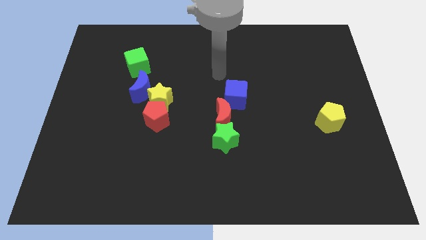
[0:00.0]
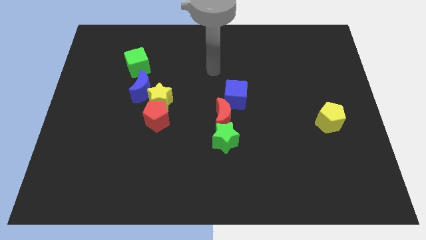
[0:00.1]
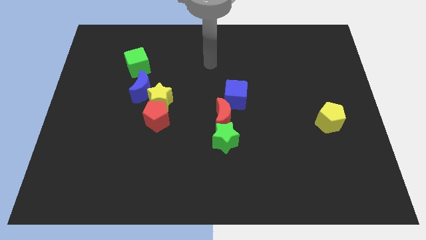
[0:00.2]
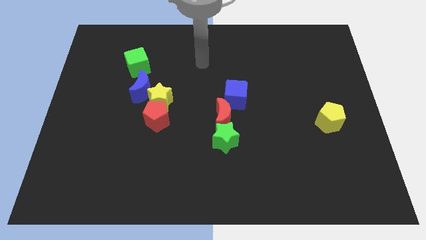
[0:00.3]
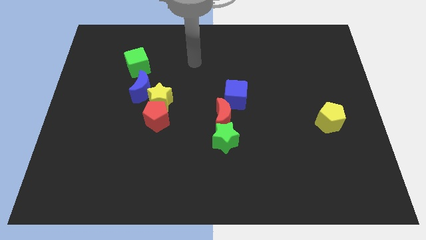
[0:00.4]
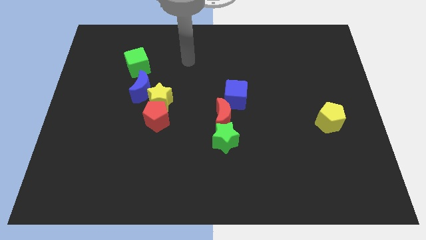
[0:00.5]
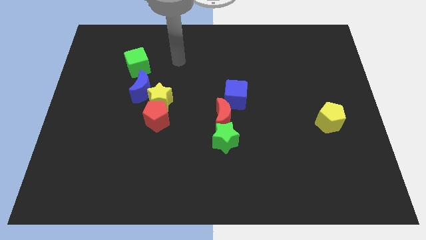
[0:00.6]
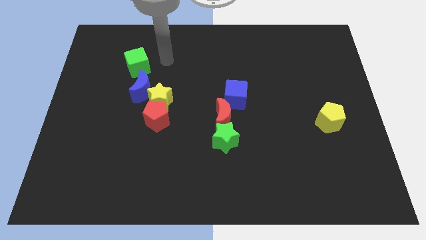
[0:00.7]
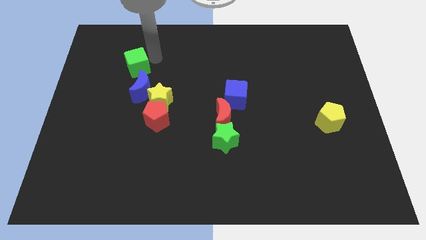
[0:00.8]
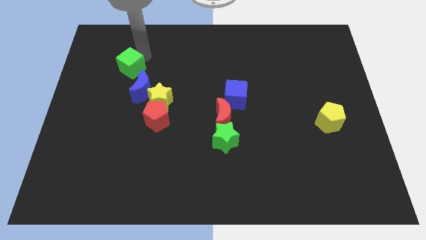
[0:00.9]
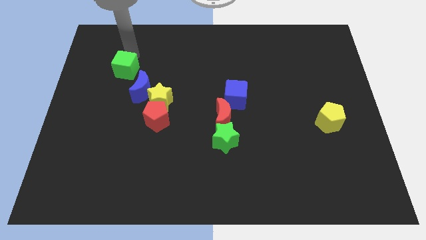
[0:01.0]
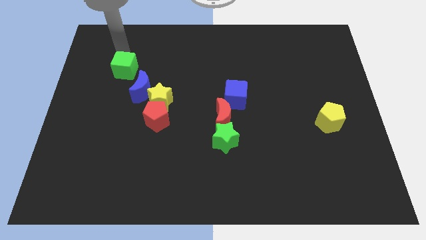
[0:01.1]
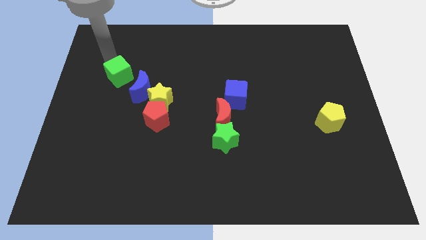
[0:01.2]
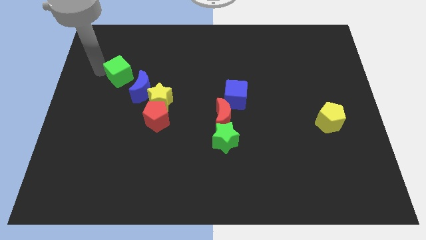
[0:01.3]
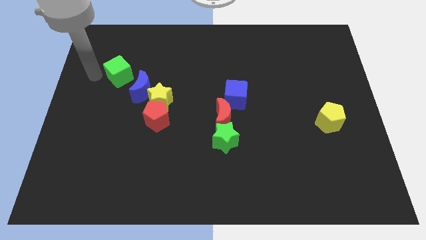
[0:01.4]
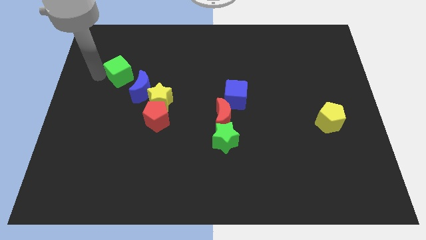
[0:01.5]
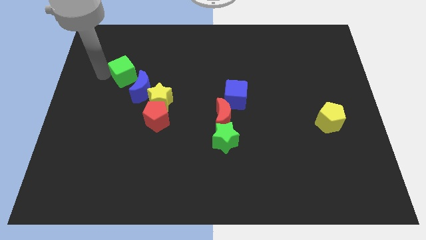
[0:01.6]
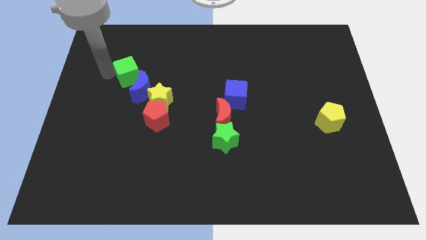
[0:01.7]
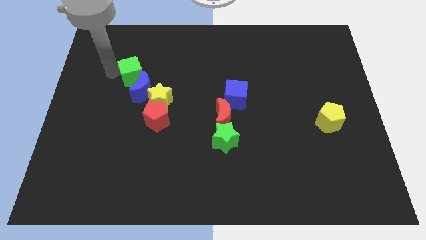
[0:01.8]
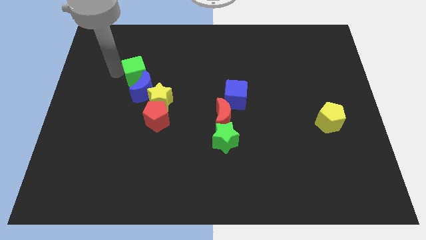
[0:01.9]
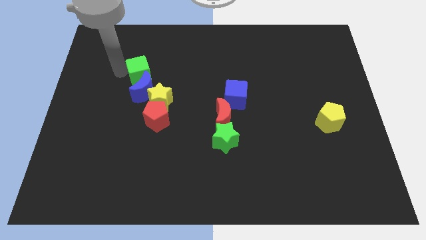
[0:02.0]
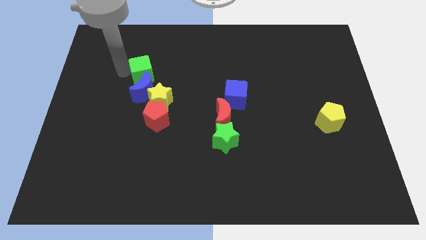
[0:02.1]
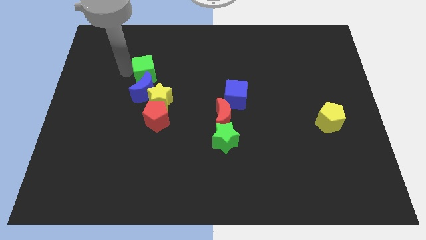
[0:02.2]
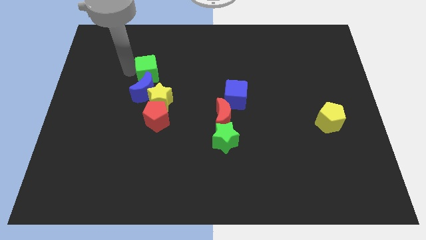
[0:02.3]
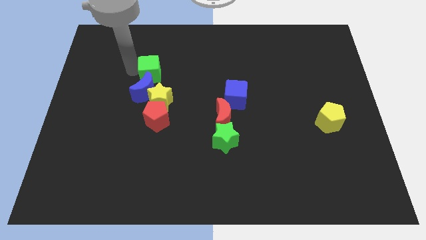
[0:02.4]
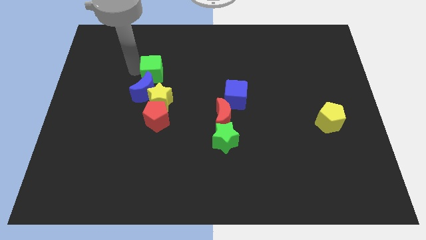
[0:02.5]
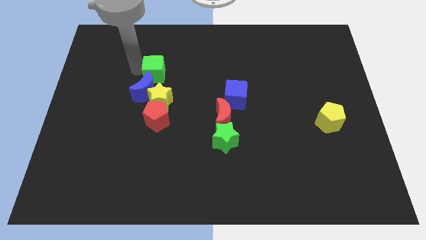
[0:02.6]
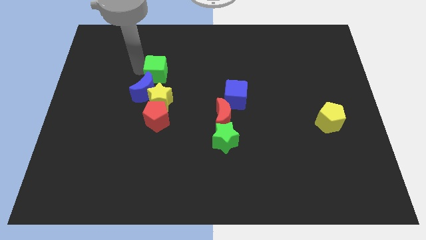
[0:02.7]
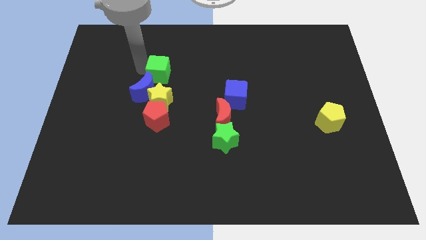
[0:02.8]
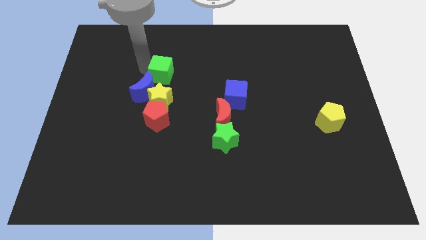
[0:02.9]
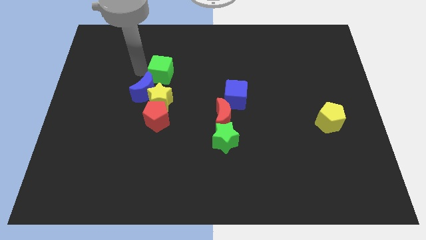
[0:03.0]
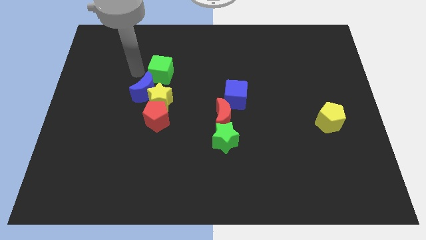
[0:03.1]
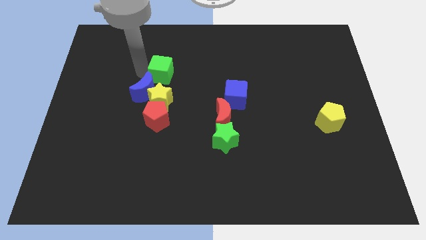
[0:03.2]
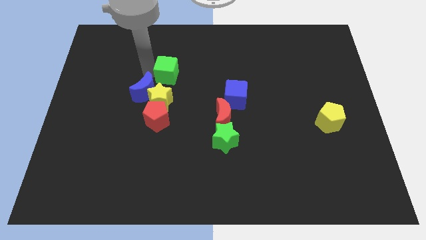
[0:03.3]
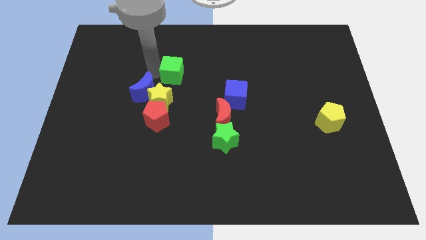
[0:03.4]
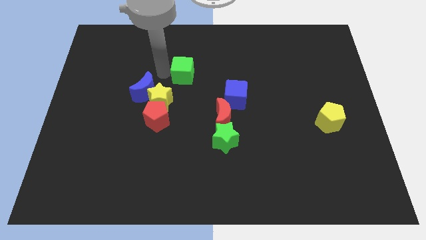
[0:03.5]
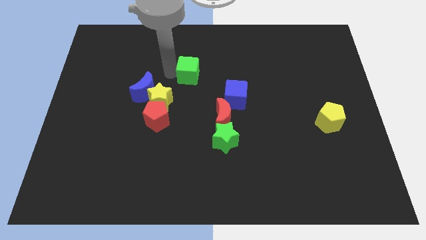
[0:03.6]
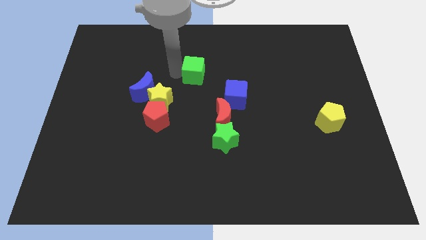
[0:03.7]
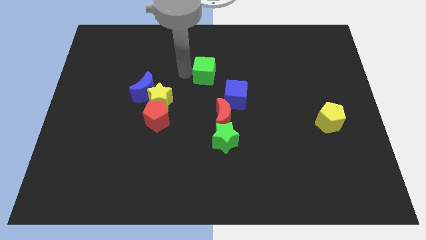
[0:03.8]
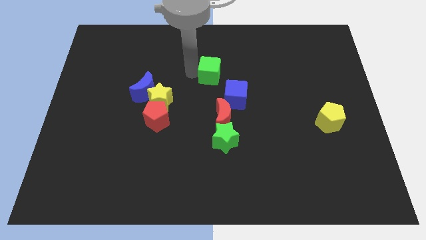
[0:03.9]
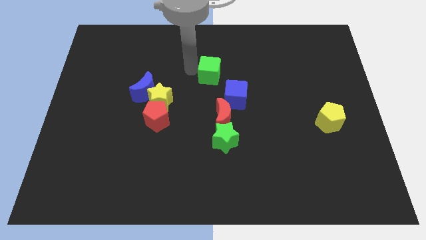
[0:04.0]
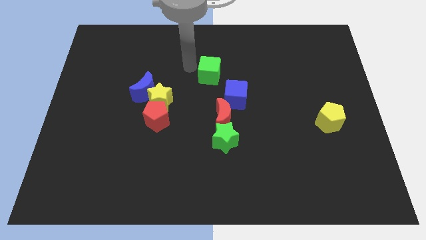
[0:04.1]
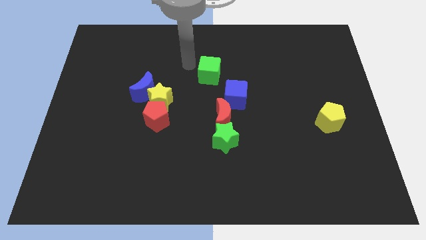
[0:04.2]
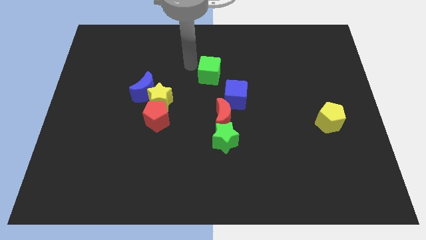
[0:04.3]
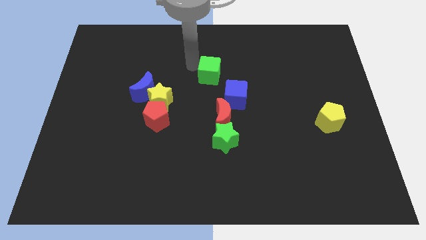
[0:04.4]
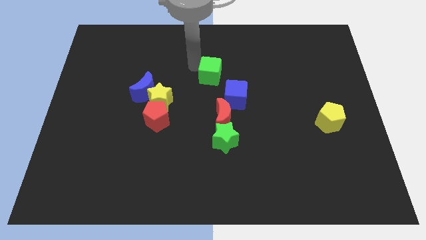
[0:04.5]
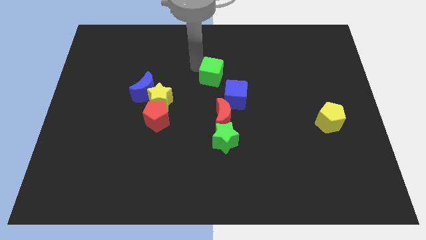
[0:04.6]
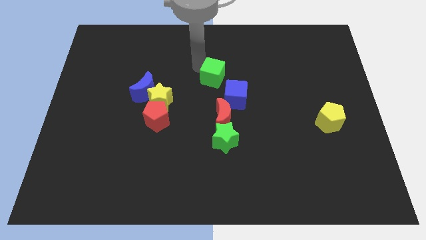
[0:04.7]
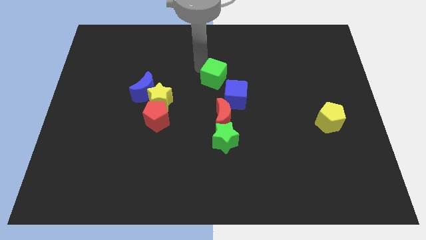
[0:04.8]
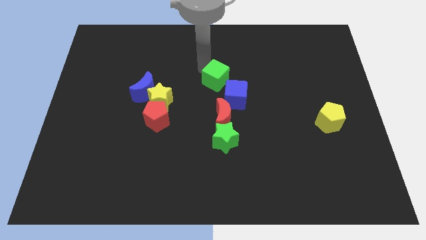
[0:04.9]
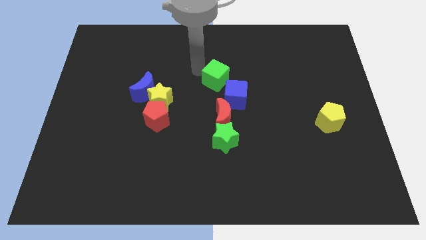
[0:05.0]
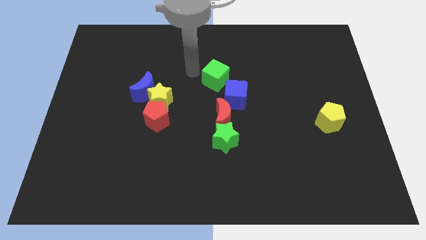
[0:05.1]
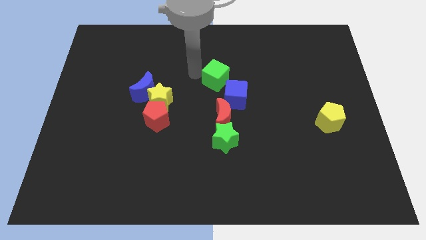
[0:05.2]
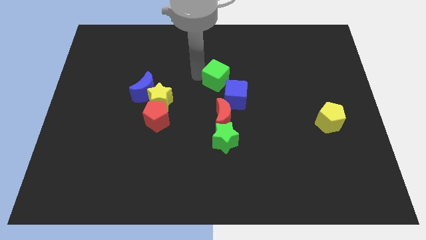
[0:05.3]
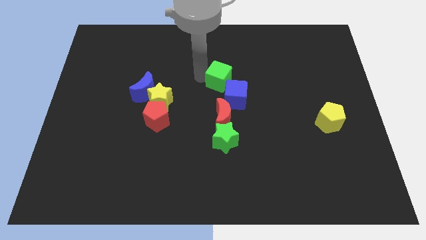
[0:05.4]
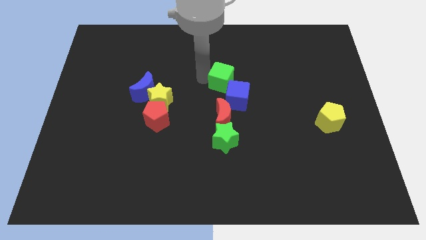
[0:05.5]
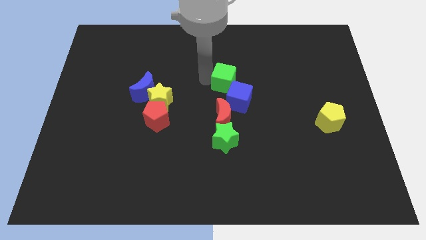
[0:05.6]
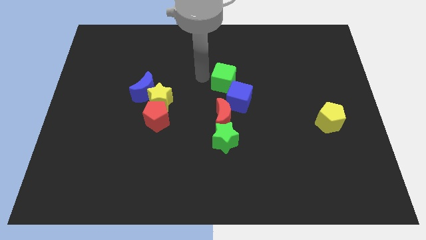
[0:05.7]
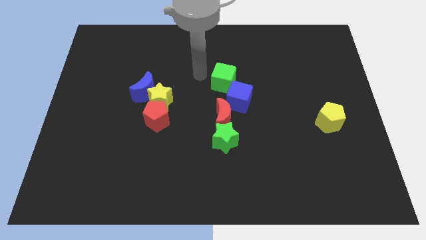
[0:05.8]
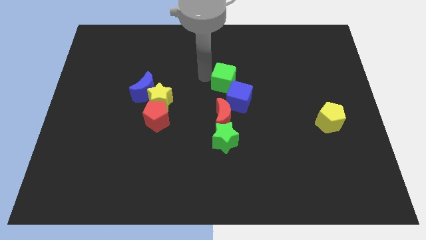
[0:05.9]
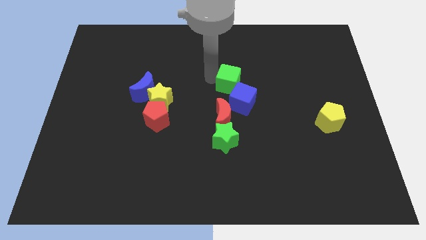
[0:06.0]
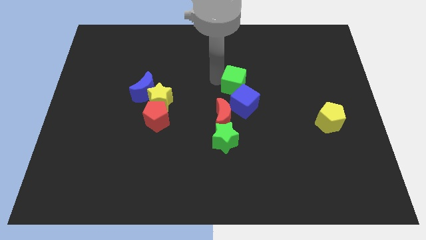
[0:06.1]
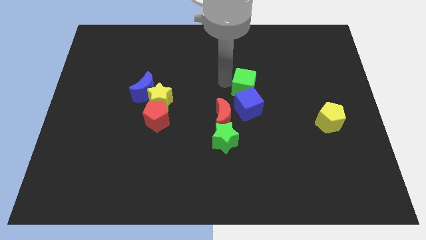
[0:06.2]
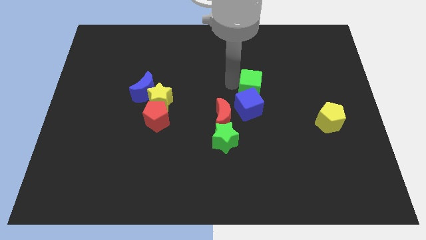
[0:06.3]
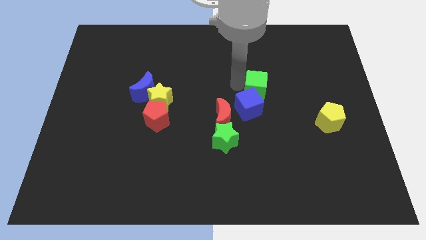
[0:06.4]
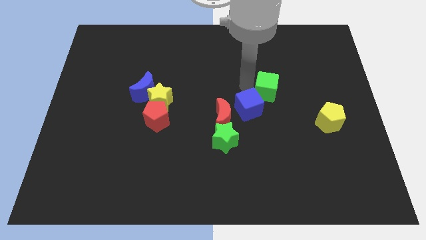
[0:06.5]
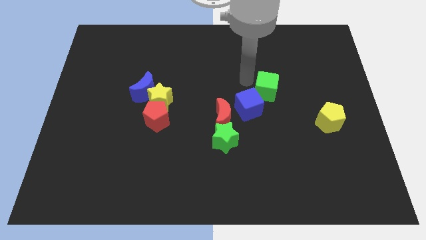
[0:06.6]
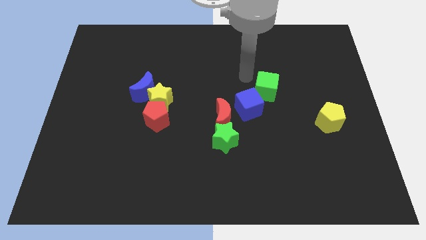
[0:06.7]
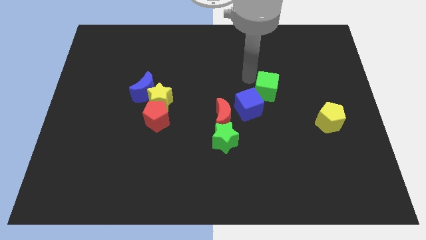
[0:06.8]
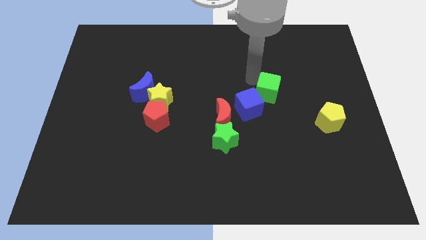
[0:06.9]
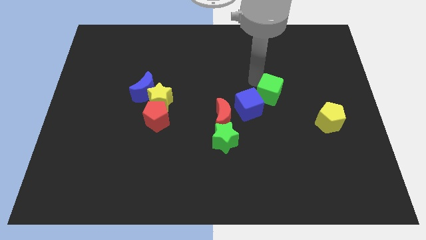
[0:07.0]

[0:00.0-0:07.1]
move the green cube to the right side of the blue cube
